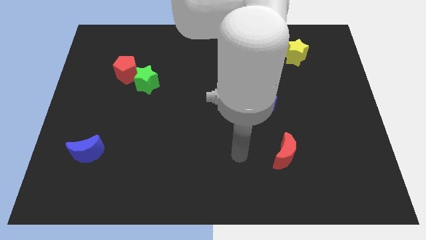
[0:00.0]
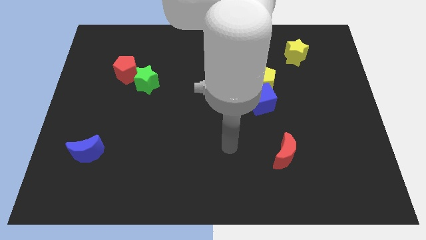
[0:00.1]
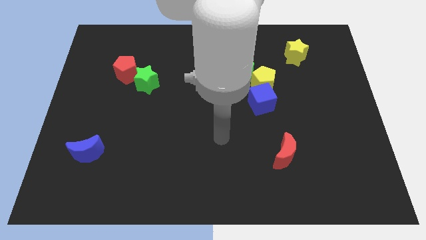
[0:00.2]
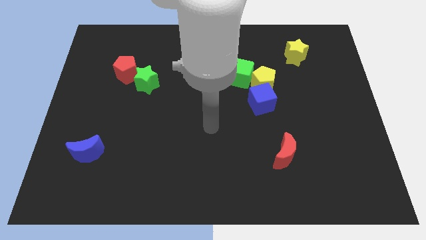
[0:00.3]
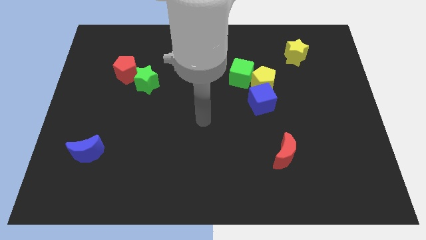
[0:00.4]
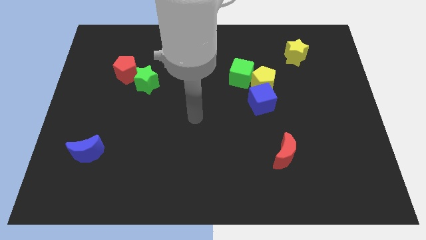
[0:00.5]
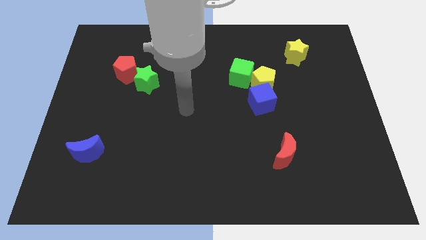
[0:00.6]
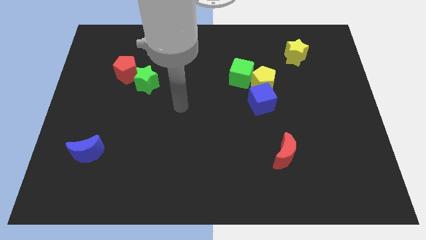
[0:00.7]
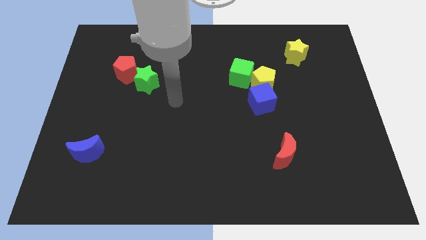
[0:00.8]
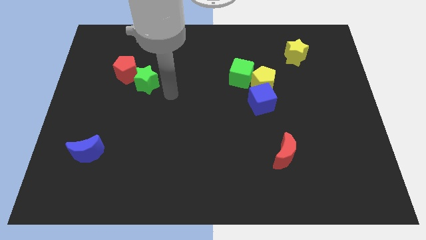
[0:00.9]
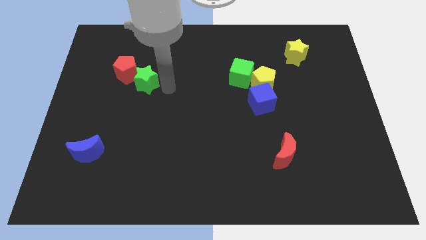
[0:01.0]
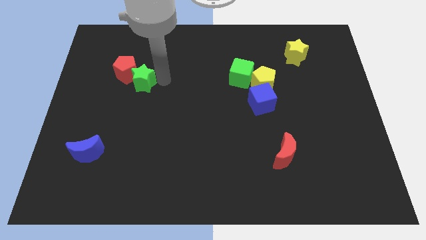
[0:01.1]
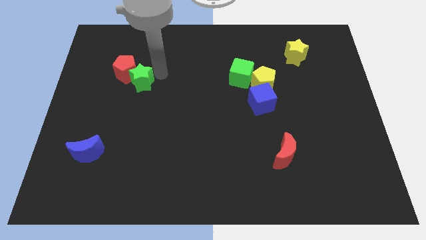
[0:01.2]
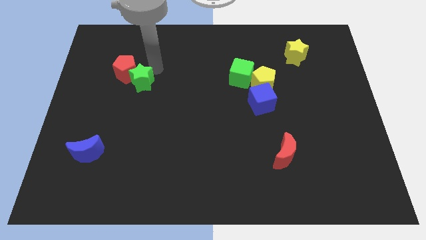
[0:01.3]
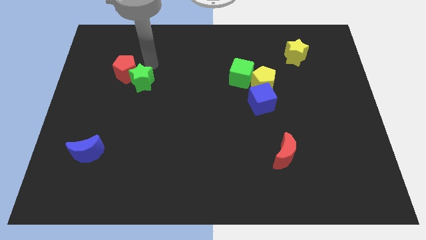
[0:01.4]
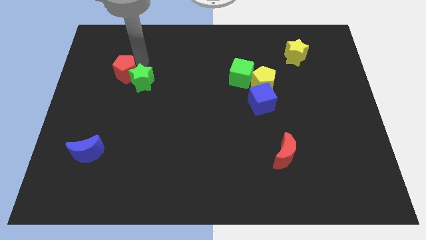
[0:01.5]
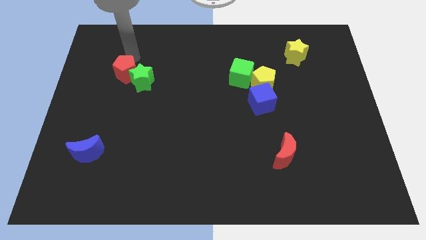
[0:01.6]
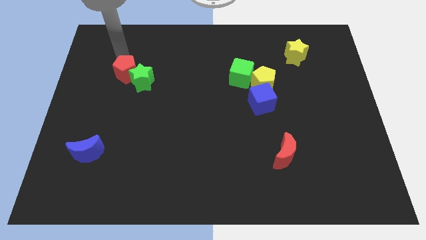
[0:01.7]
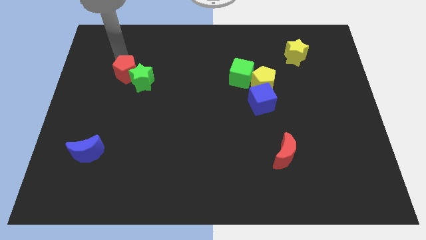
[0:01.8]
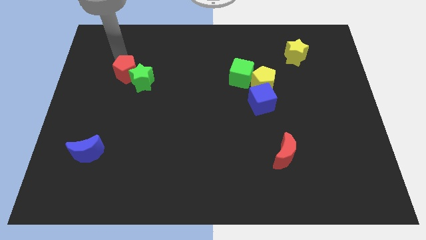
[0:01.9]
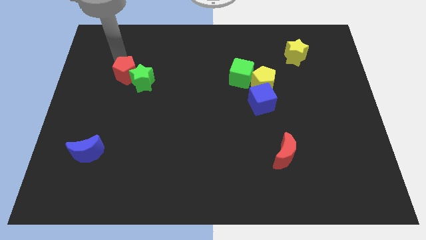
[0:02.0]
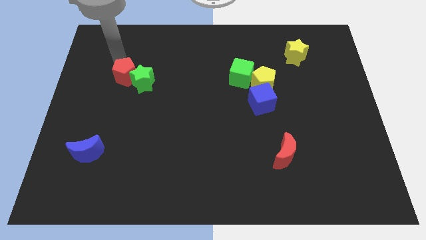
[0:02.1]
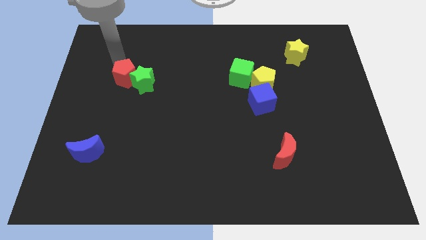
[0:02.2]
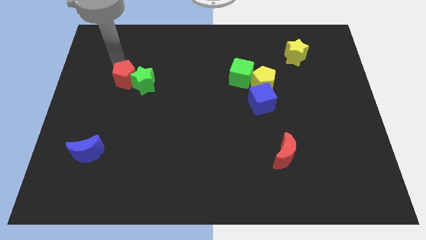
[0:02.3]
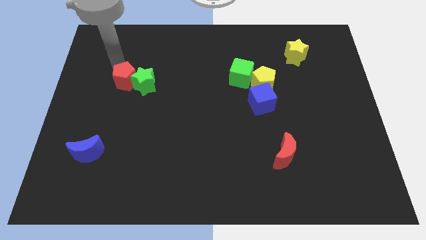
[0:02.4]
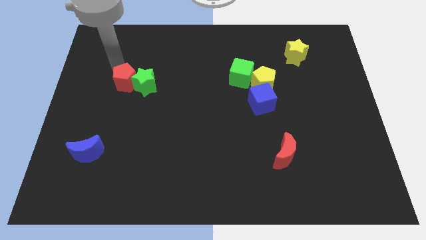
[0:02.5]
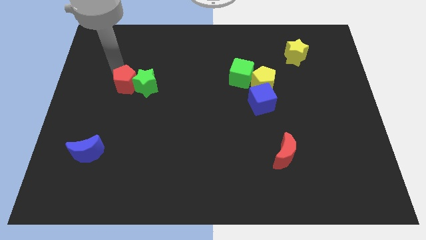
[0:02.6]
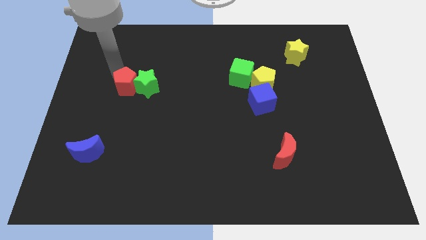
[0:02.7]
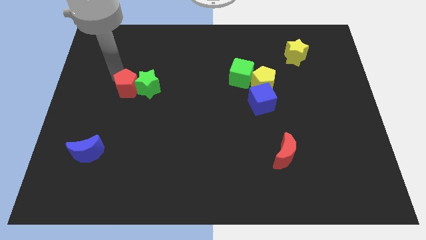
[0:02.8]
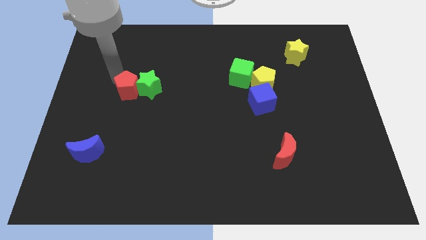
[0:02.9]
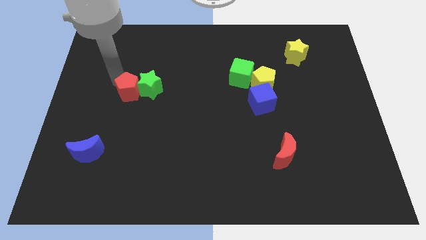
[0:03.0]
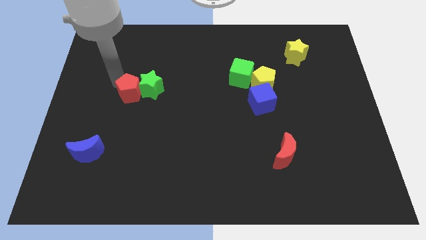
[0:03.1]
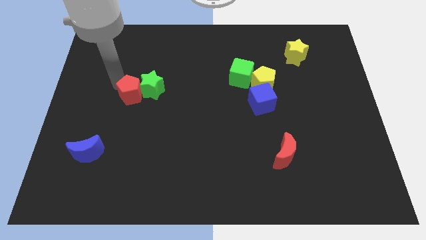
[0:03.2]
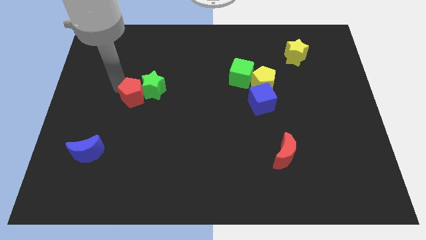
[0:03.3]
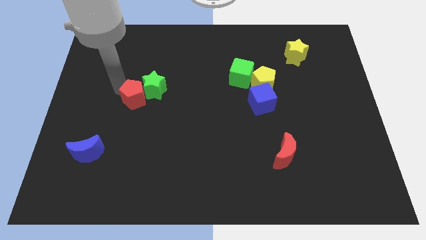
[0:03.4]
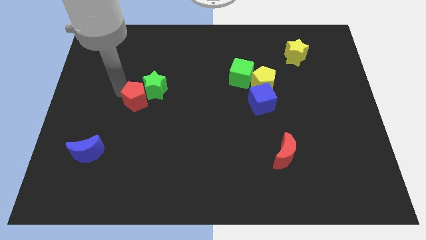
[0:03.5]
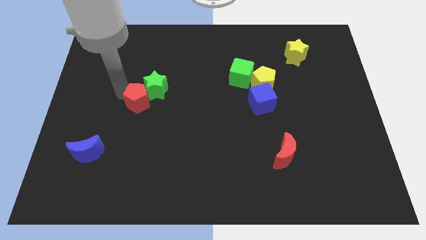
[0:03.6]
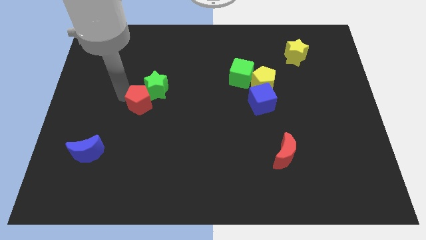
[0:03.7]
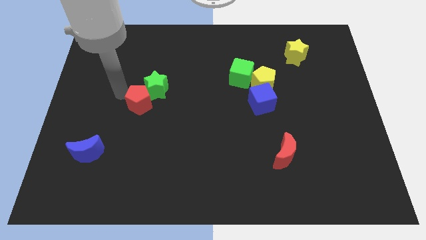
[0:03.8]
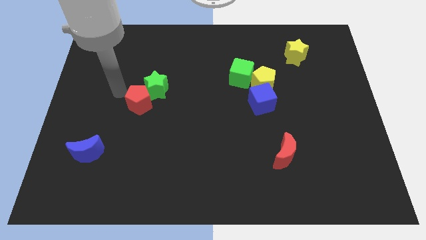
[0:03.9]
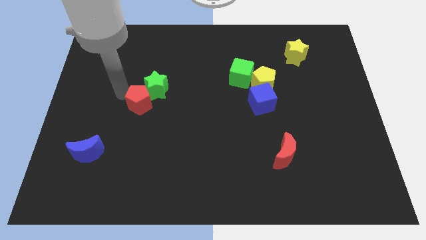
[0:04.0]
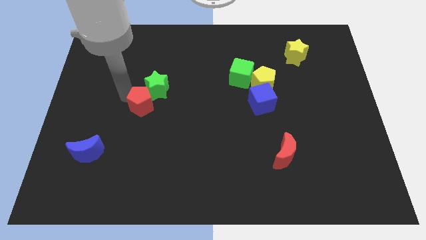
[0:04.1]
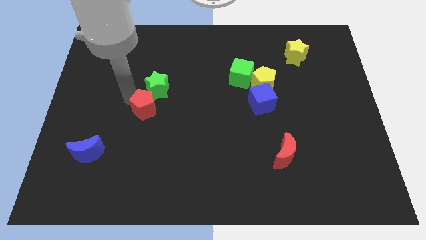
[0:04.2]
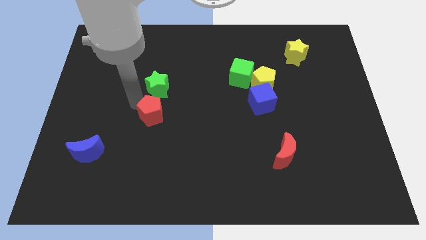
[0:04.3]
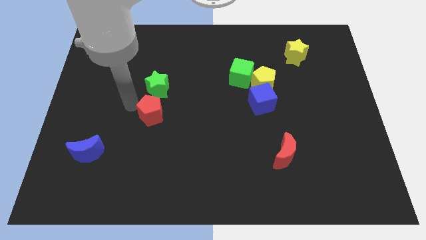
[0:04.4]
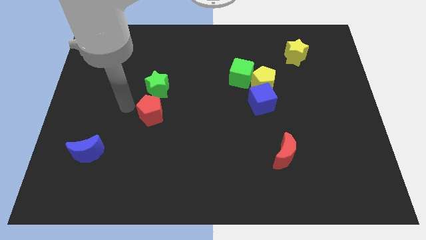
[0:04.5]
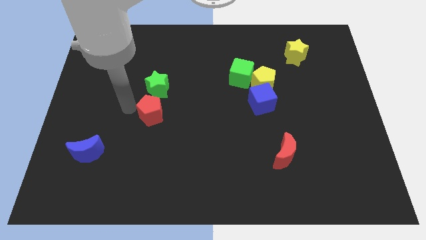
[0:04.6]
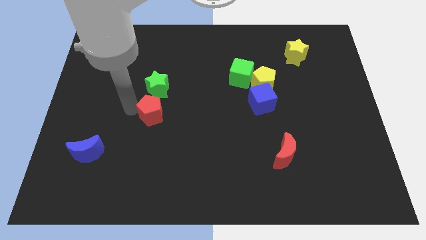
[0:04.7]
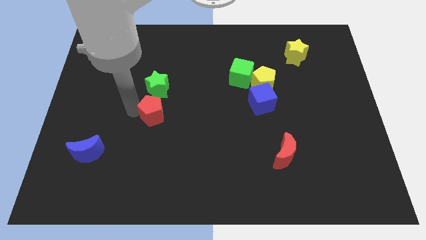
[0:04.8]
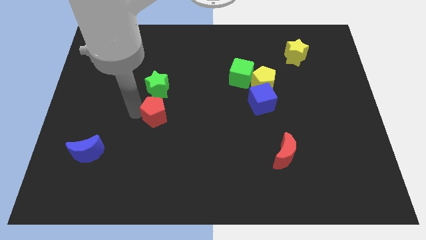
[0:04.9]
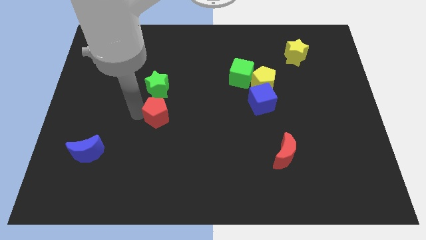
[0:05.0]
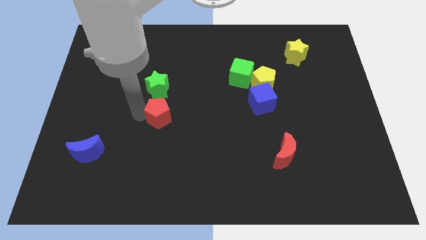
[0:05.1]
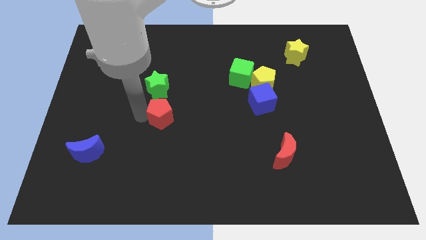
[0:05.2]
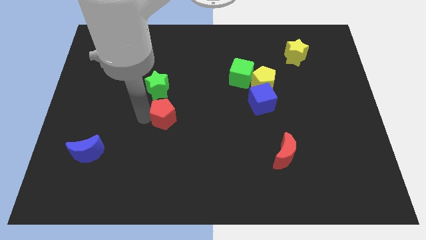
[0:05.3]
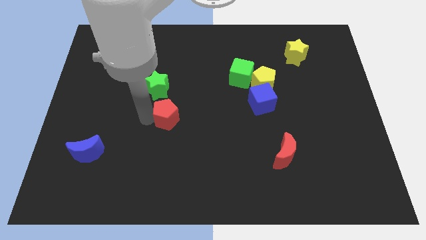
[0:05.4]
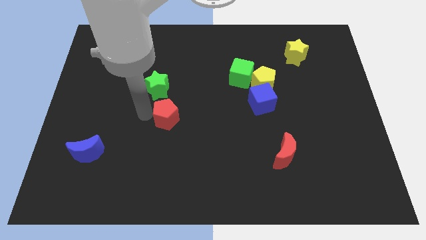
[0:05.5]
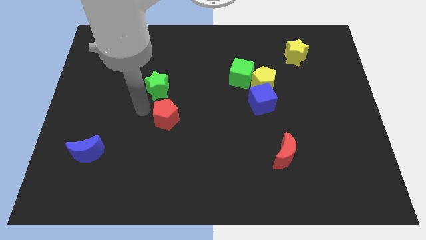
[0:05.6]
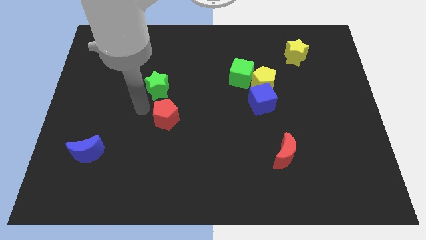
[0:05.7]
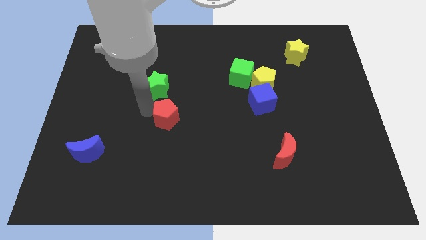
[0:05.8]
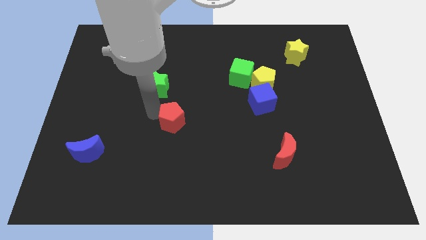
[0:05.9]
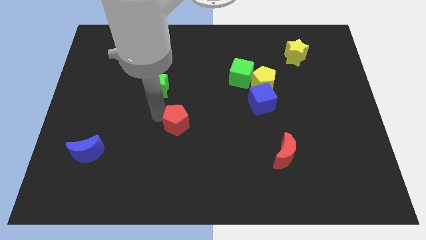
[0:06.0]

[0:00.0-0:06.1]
push the red pentagon diagonally downwards and to the right

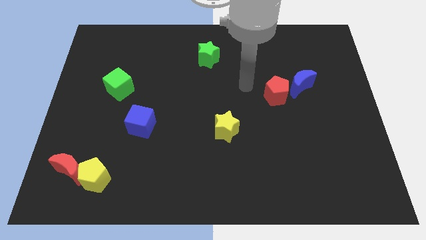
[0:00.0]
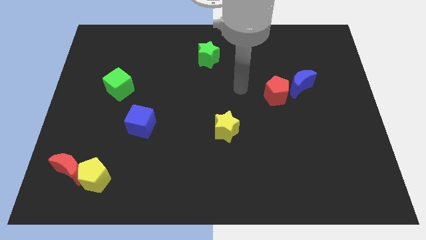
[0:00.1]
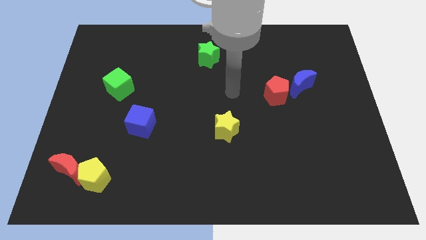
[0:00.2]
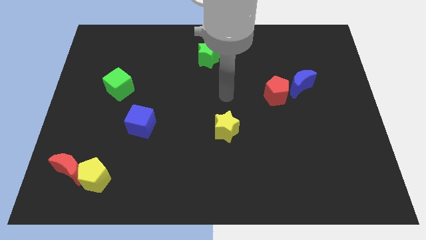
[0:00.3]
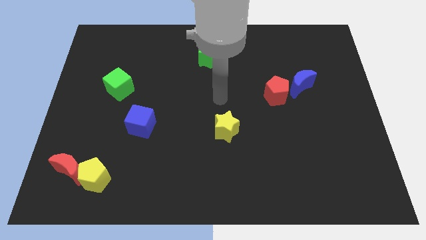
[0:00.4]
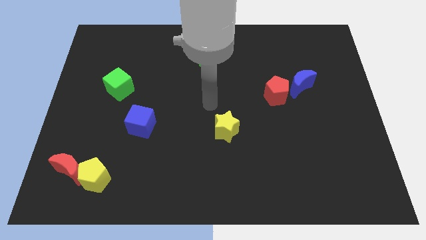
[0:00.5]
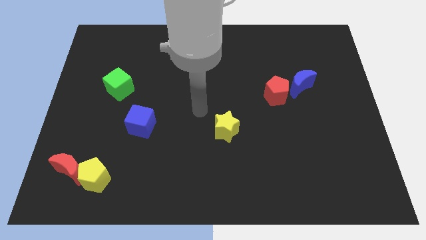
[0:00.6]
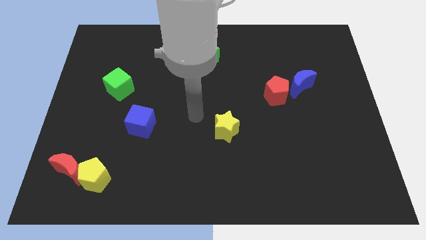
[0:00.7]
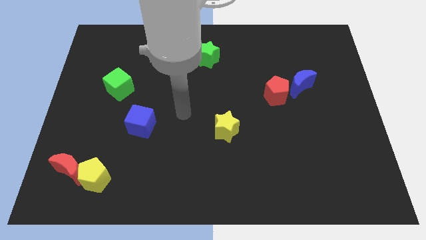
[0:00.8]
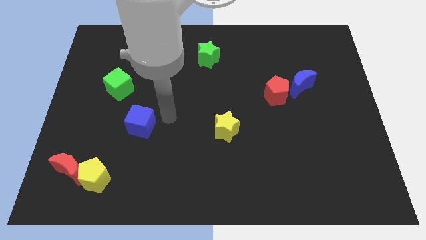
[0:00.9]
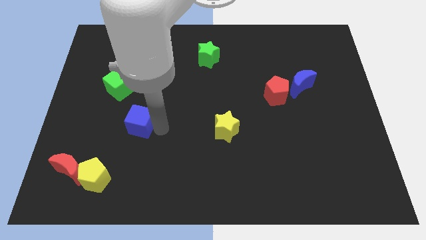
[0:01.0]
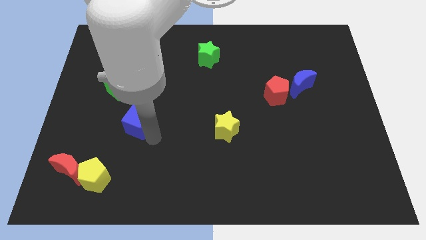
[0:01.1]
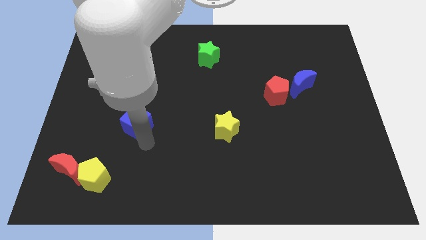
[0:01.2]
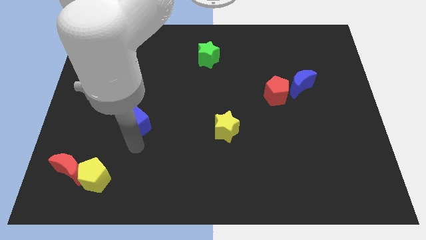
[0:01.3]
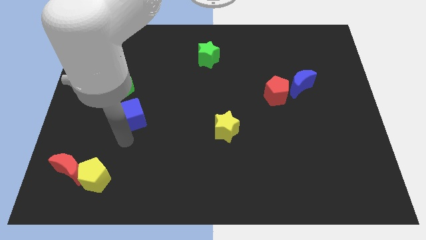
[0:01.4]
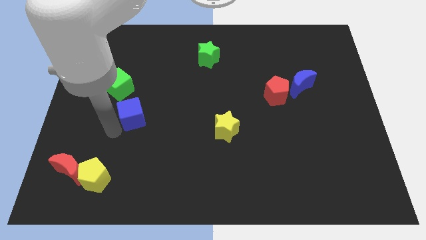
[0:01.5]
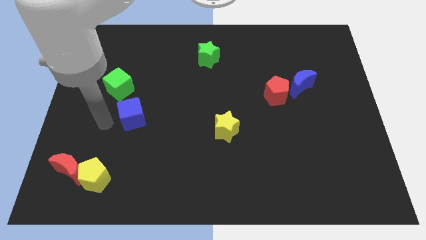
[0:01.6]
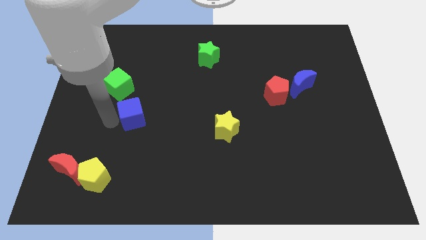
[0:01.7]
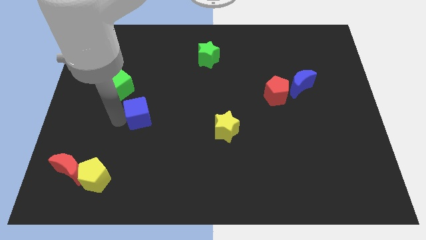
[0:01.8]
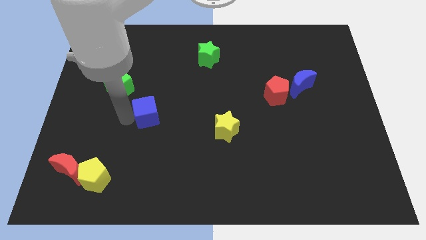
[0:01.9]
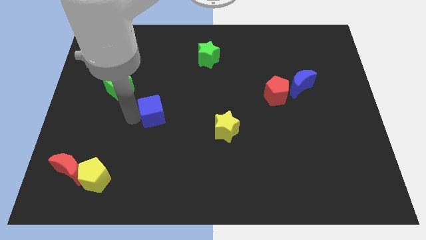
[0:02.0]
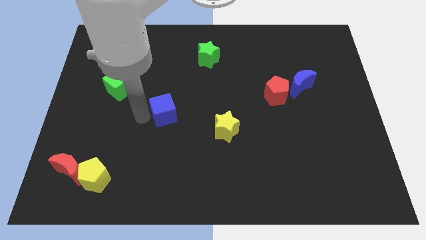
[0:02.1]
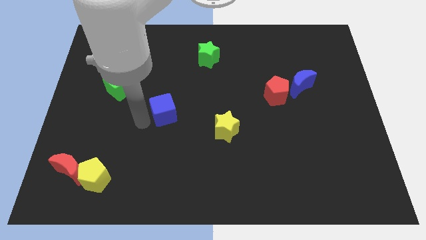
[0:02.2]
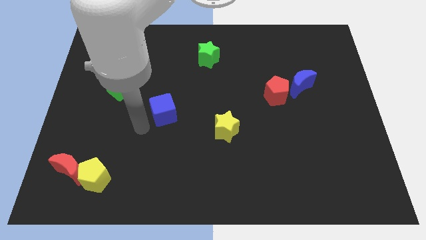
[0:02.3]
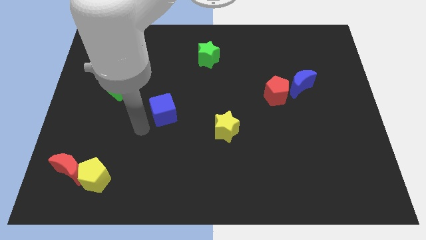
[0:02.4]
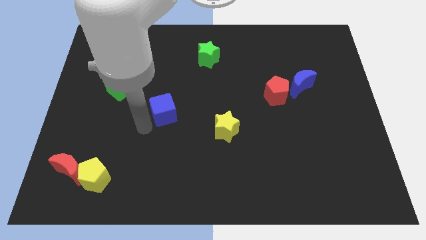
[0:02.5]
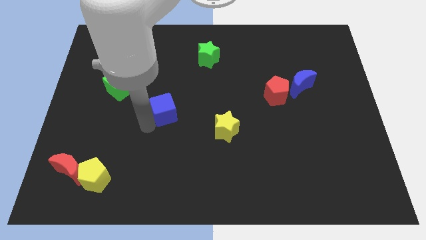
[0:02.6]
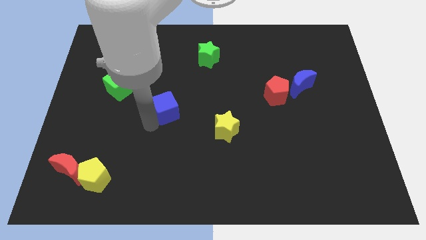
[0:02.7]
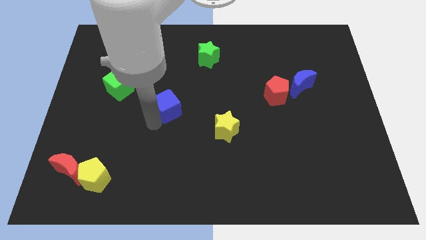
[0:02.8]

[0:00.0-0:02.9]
slide the blue cube upwards and to the right a little bit
